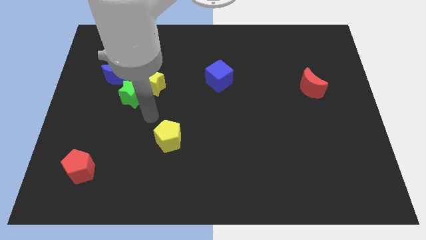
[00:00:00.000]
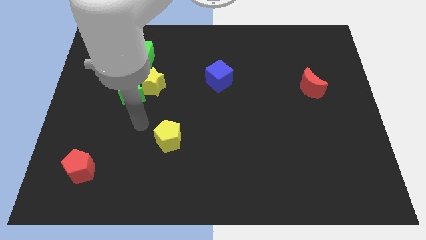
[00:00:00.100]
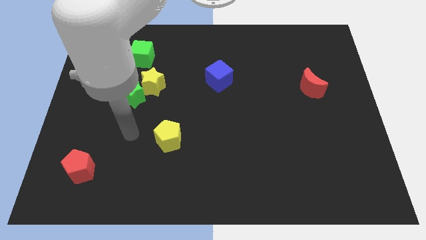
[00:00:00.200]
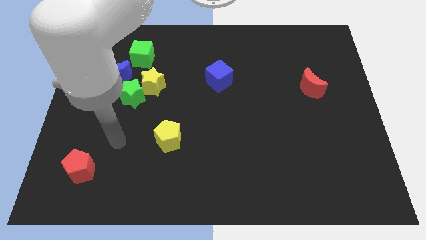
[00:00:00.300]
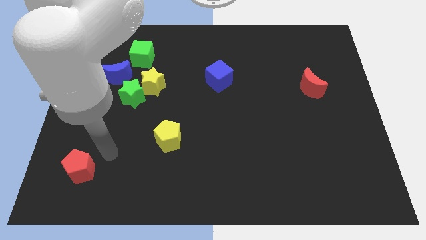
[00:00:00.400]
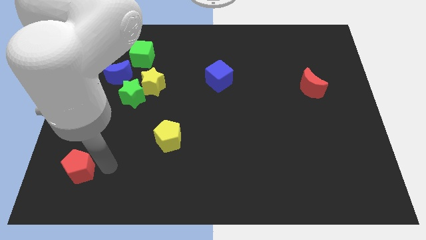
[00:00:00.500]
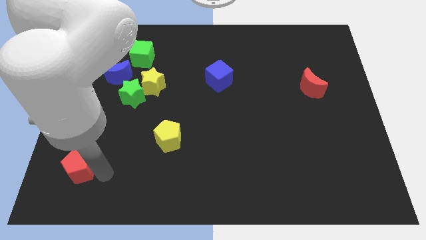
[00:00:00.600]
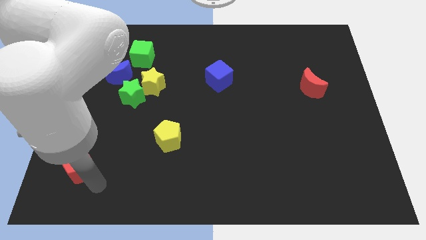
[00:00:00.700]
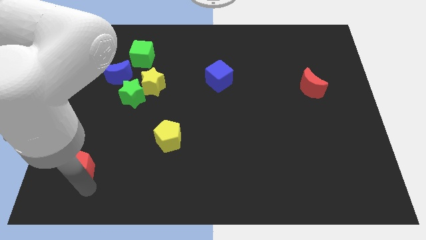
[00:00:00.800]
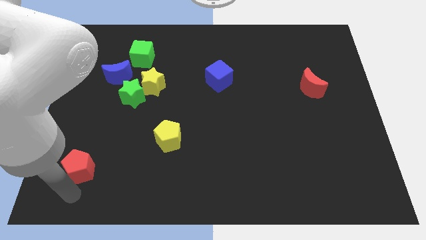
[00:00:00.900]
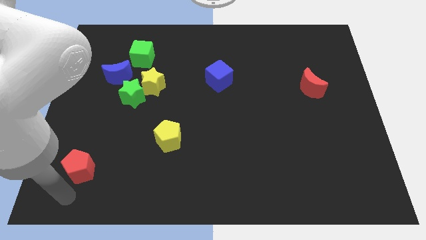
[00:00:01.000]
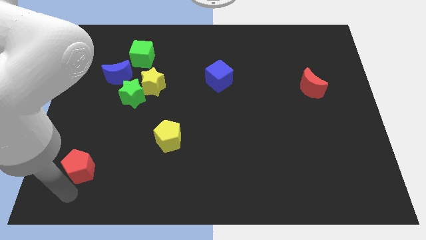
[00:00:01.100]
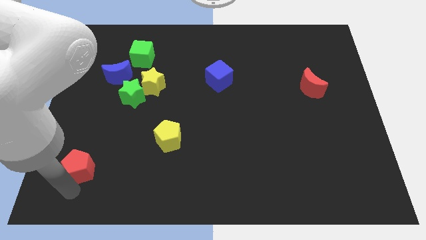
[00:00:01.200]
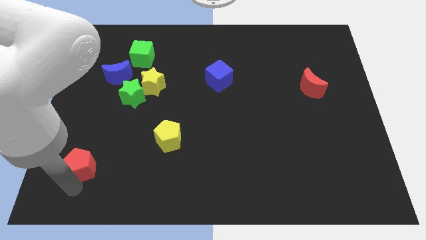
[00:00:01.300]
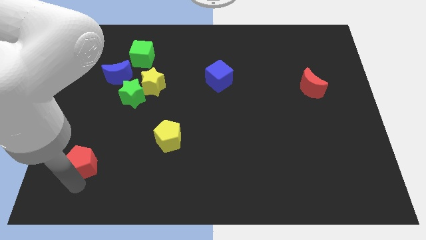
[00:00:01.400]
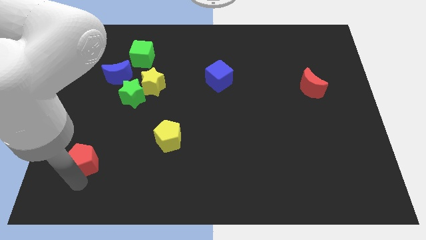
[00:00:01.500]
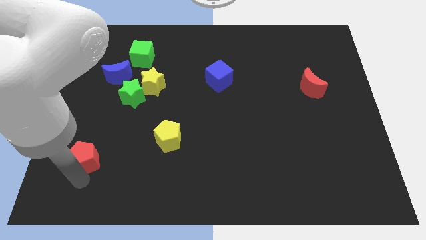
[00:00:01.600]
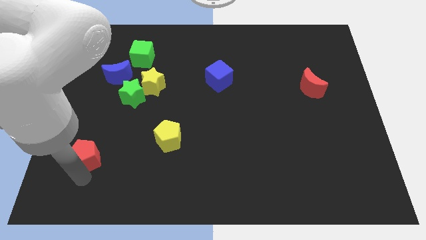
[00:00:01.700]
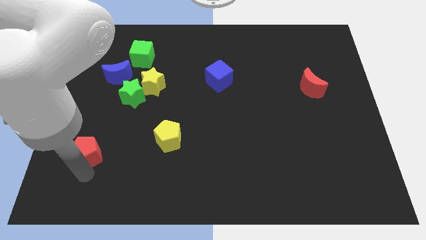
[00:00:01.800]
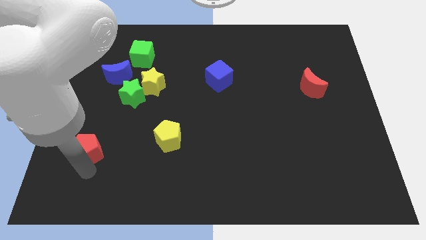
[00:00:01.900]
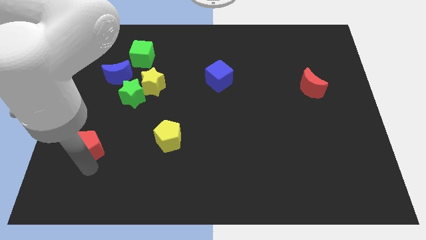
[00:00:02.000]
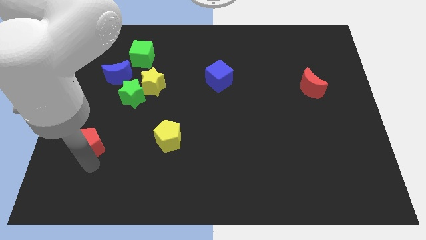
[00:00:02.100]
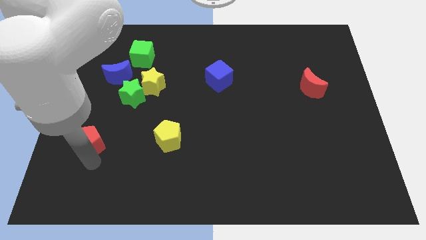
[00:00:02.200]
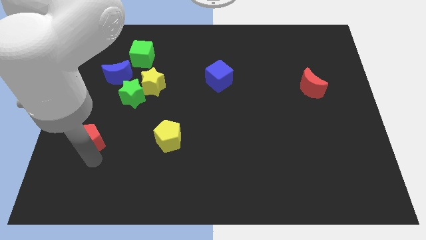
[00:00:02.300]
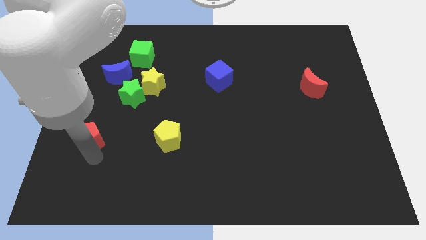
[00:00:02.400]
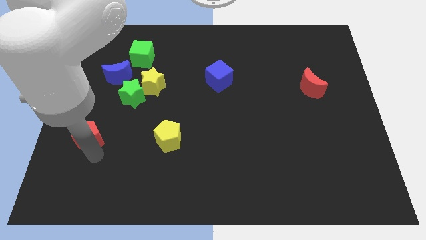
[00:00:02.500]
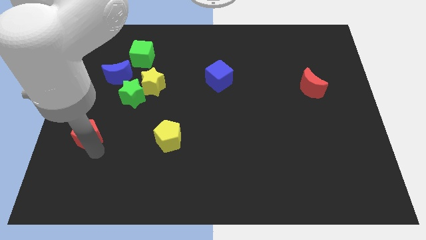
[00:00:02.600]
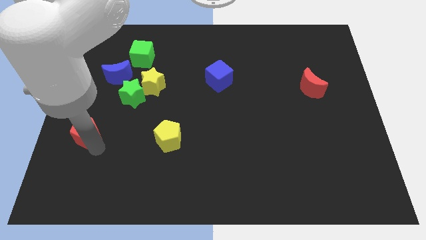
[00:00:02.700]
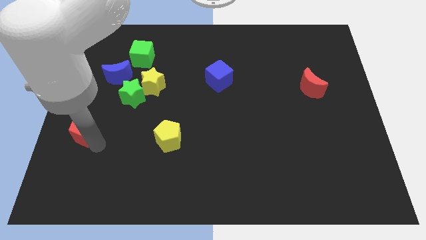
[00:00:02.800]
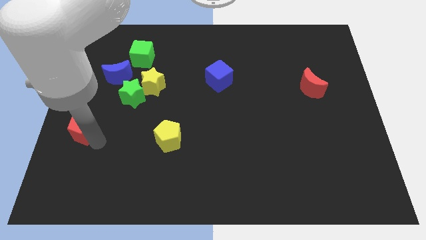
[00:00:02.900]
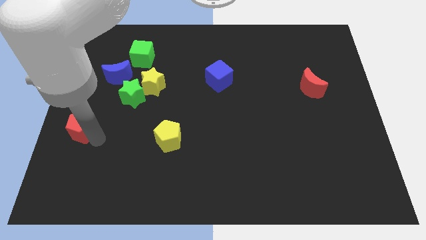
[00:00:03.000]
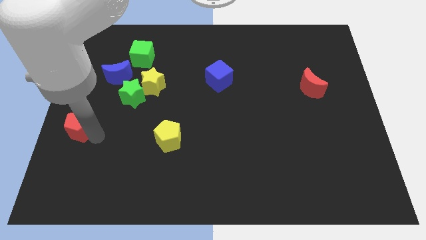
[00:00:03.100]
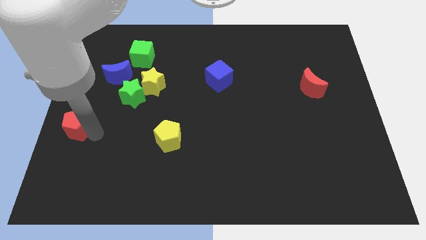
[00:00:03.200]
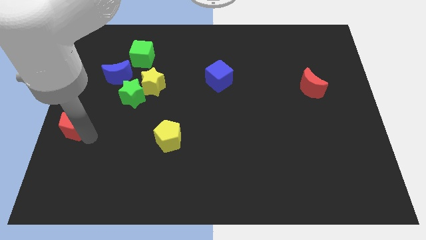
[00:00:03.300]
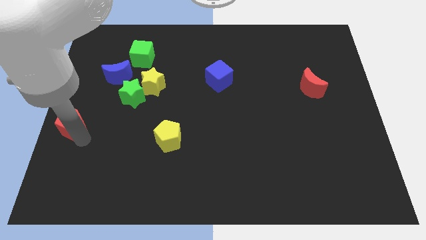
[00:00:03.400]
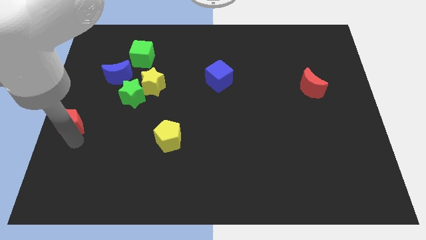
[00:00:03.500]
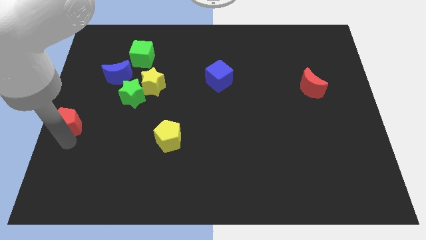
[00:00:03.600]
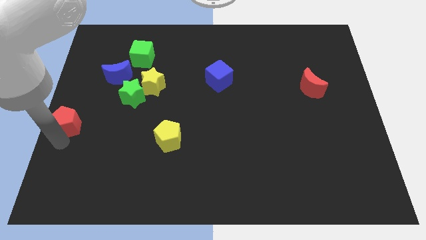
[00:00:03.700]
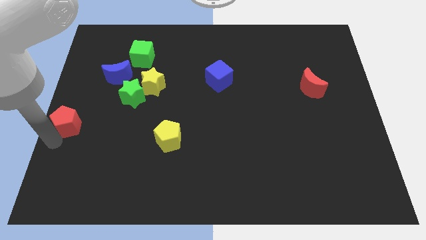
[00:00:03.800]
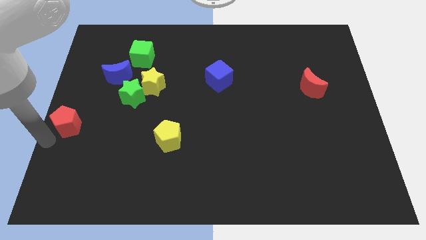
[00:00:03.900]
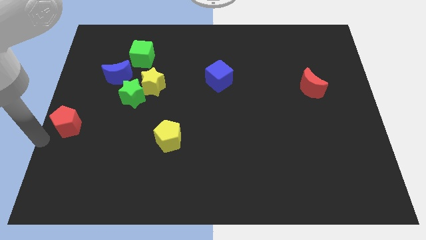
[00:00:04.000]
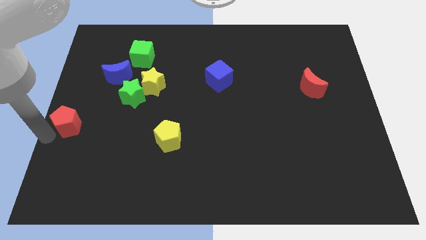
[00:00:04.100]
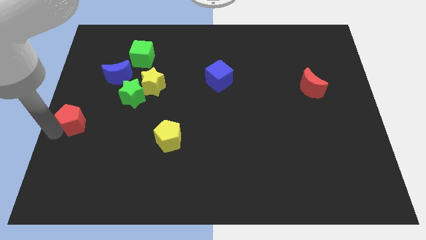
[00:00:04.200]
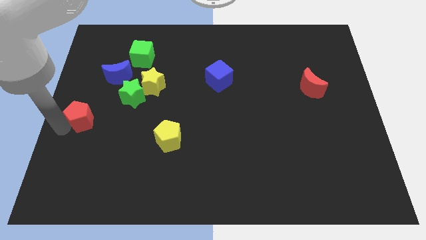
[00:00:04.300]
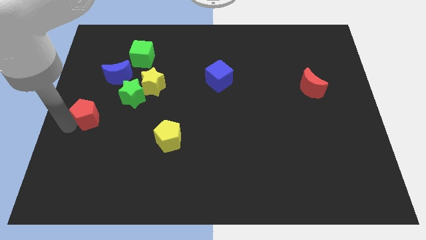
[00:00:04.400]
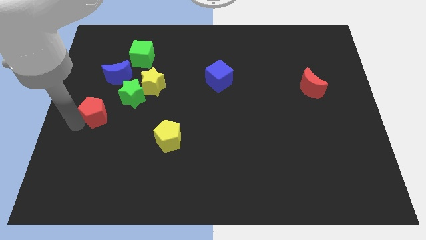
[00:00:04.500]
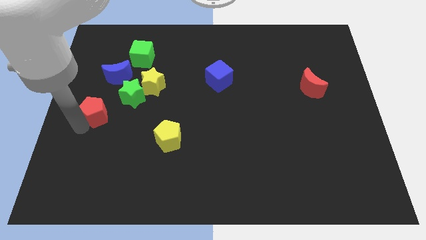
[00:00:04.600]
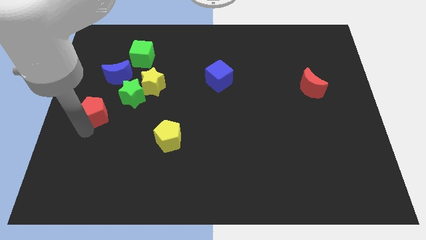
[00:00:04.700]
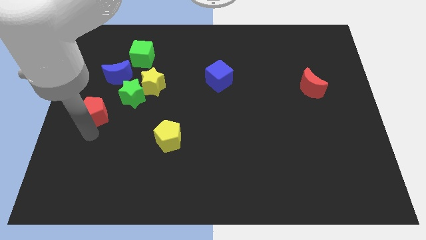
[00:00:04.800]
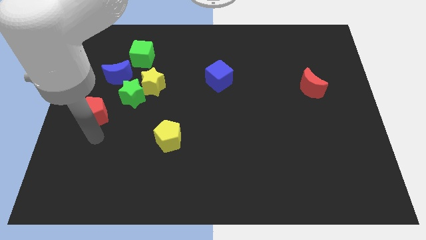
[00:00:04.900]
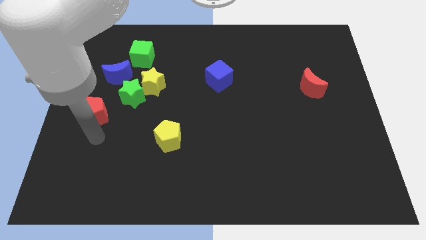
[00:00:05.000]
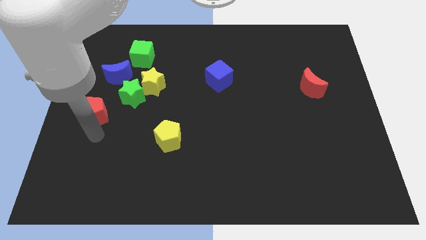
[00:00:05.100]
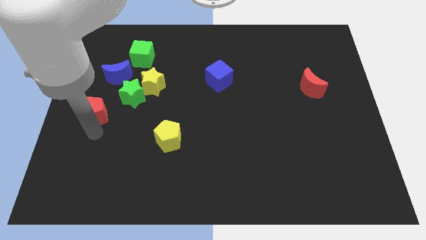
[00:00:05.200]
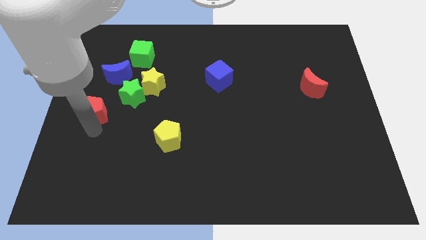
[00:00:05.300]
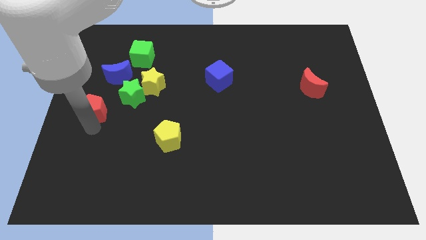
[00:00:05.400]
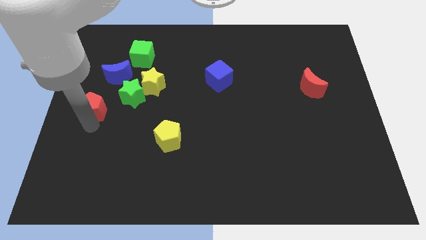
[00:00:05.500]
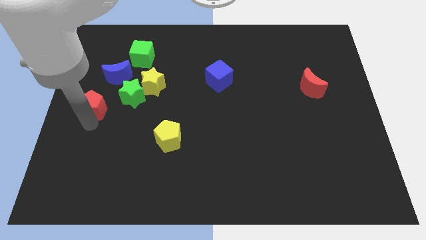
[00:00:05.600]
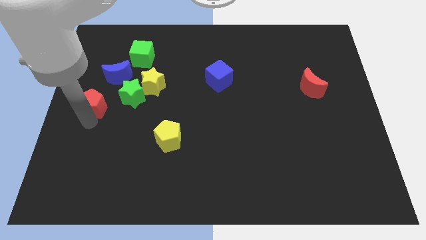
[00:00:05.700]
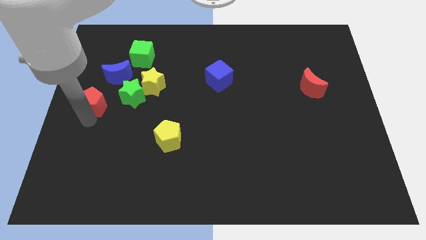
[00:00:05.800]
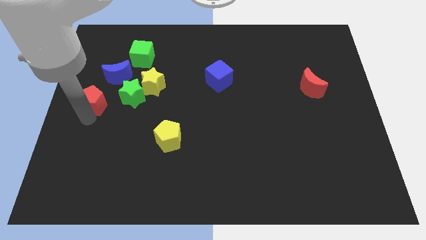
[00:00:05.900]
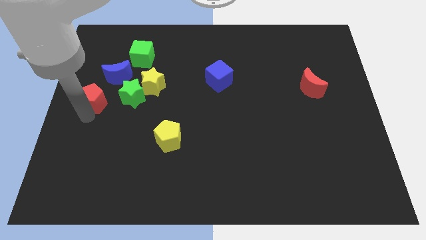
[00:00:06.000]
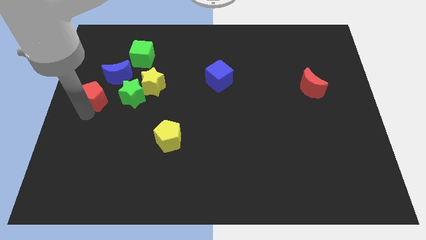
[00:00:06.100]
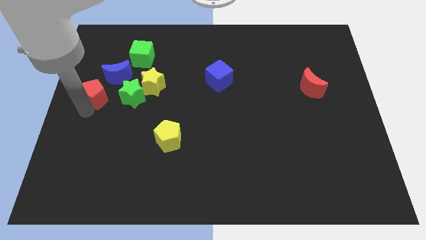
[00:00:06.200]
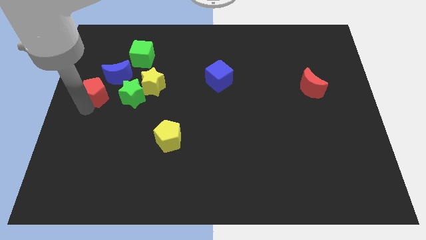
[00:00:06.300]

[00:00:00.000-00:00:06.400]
push the red pentagon up

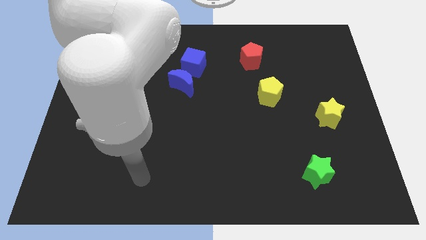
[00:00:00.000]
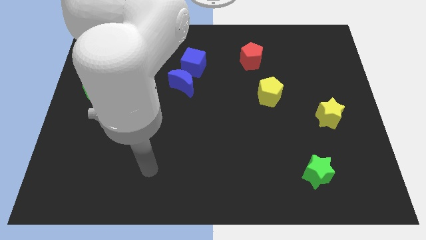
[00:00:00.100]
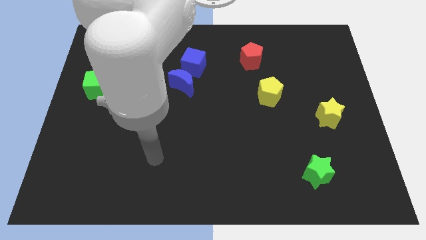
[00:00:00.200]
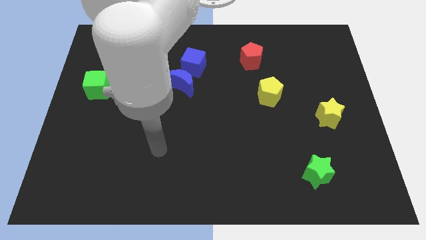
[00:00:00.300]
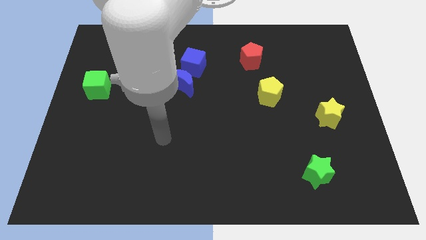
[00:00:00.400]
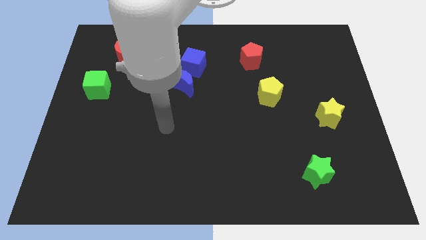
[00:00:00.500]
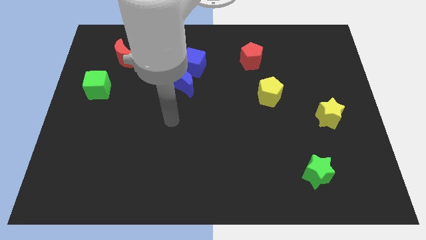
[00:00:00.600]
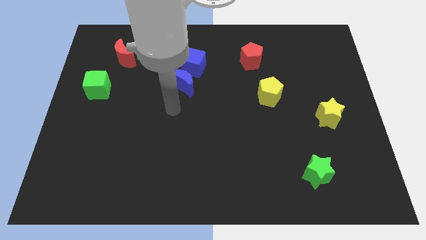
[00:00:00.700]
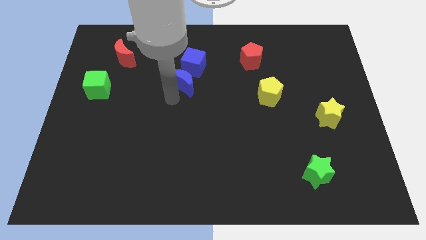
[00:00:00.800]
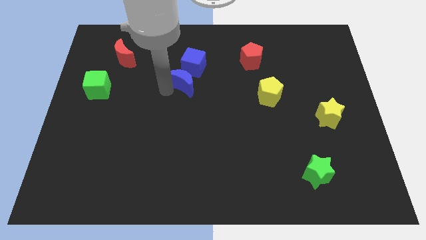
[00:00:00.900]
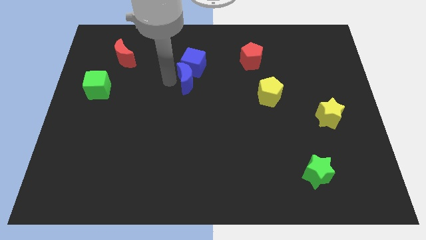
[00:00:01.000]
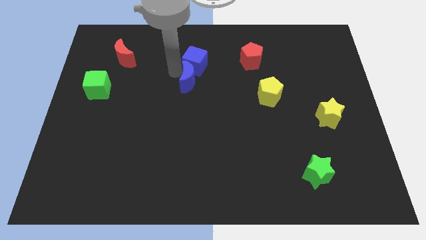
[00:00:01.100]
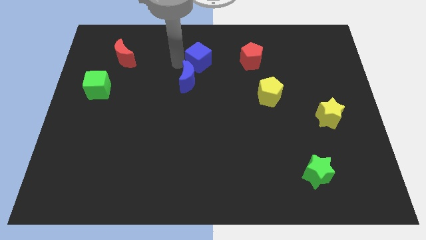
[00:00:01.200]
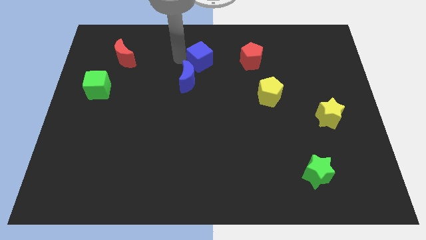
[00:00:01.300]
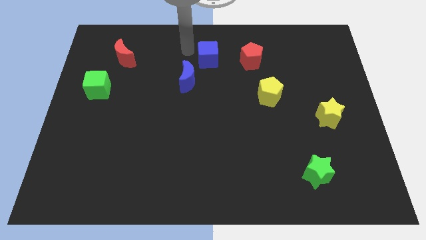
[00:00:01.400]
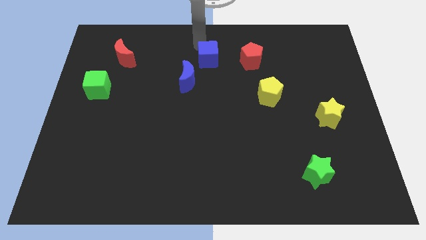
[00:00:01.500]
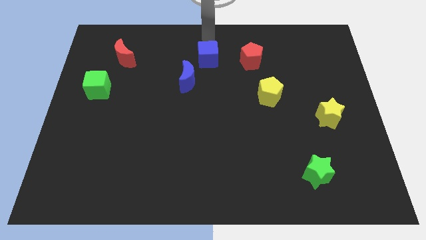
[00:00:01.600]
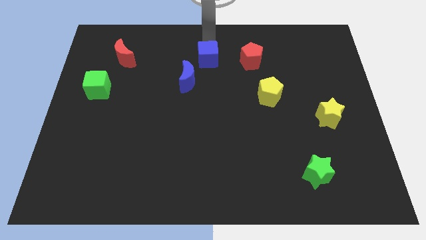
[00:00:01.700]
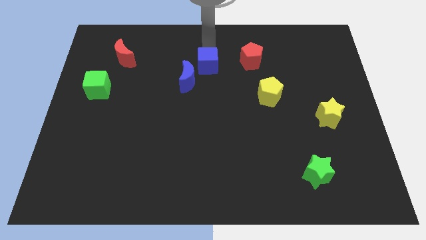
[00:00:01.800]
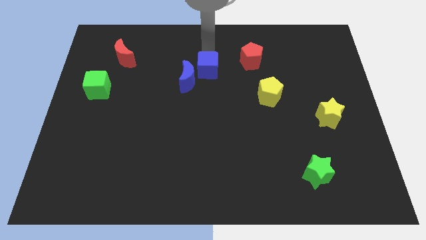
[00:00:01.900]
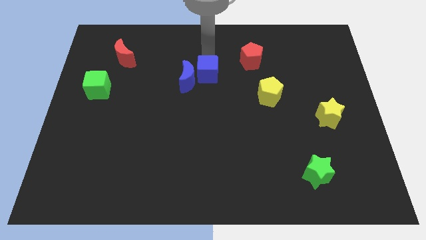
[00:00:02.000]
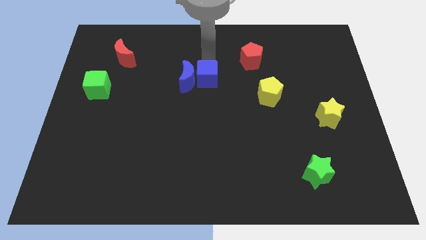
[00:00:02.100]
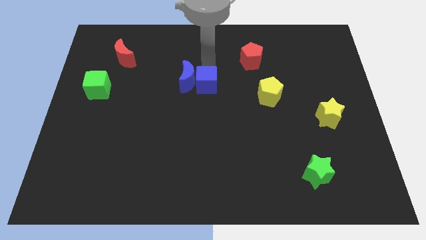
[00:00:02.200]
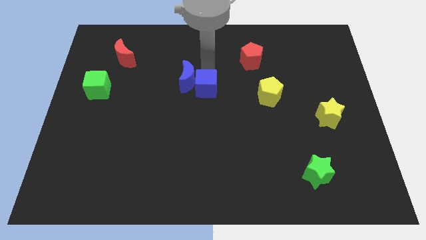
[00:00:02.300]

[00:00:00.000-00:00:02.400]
push the blue cube a little down
